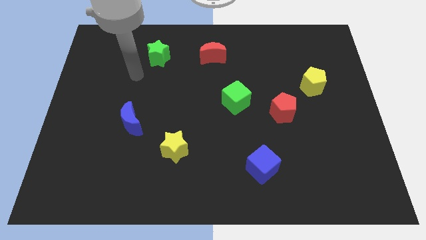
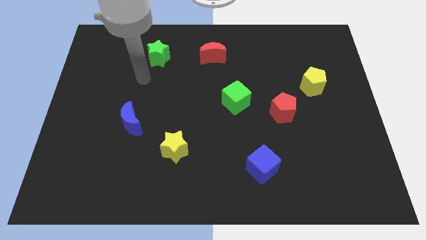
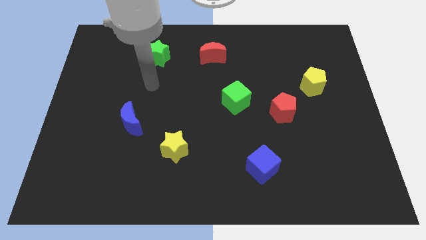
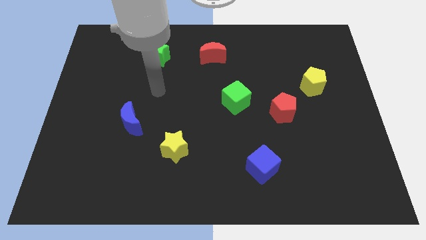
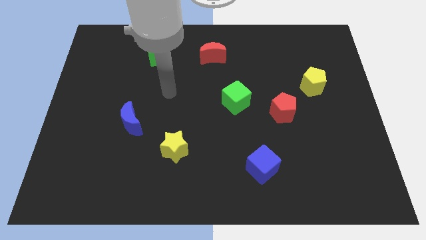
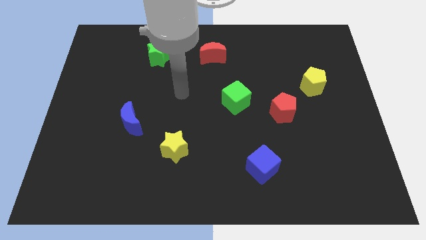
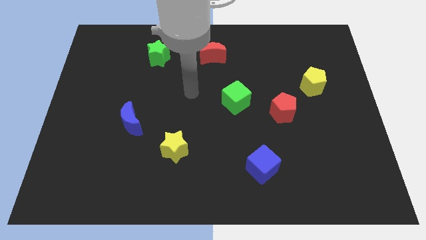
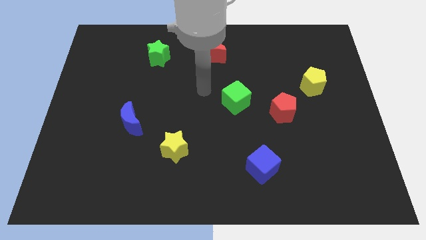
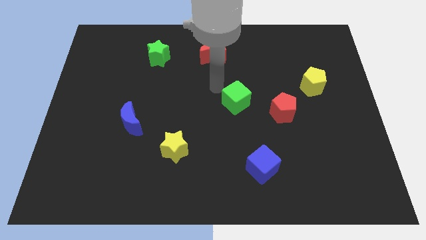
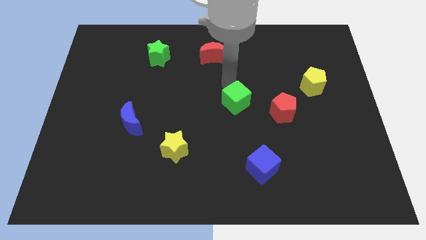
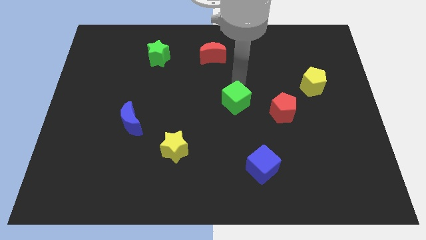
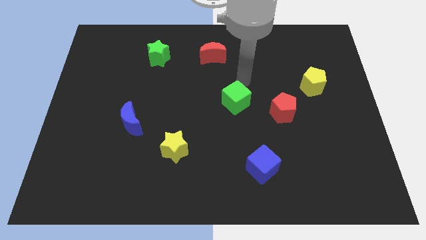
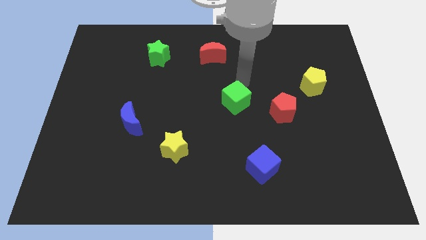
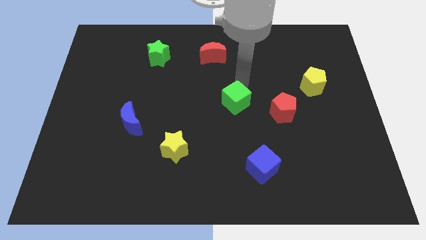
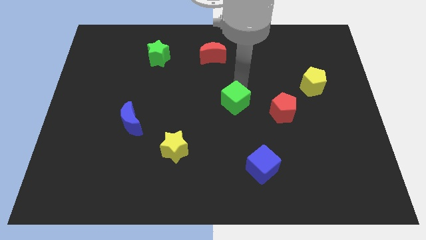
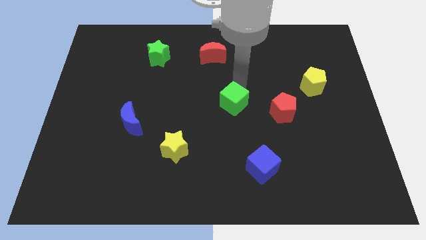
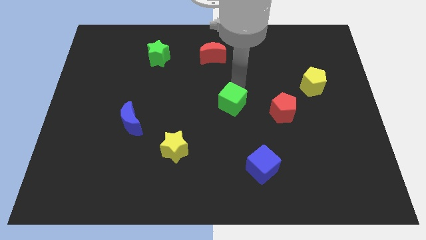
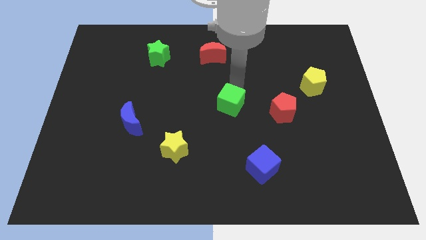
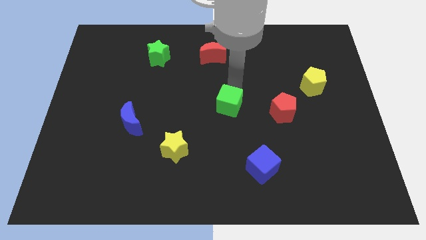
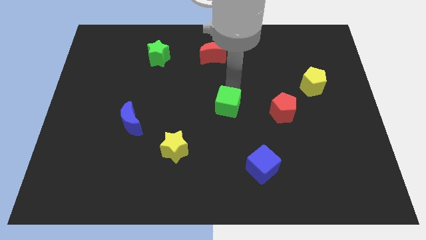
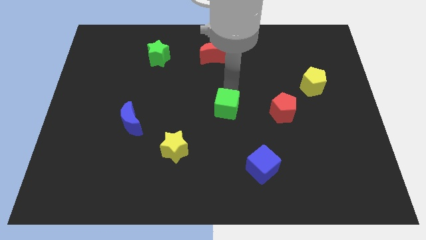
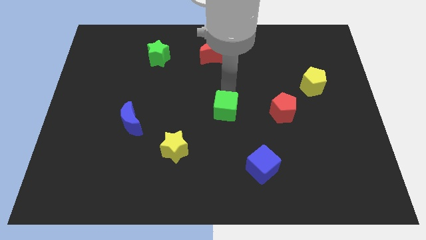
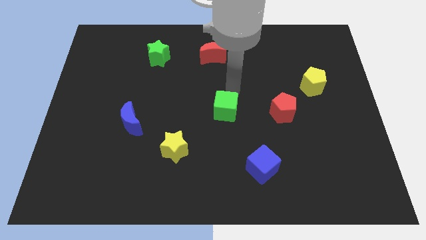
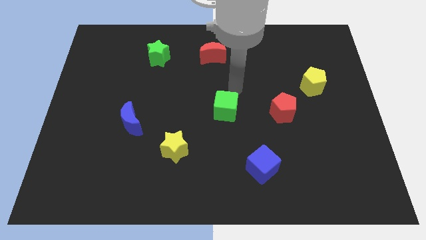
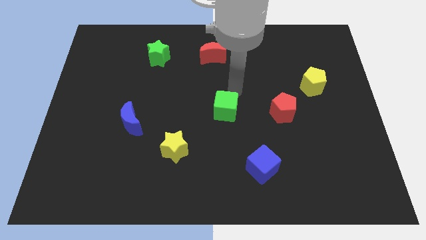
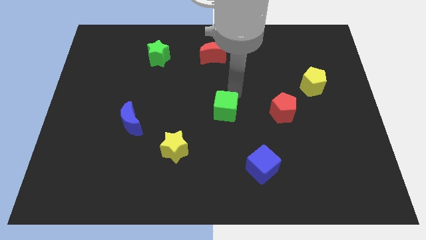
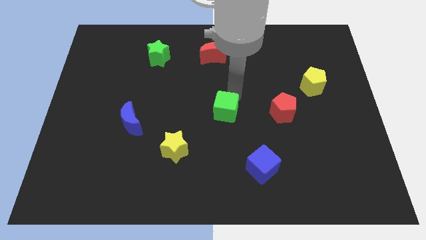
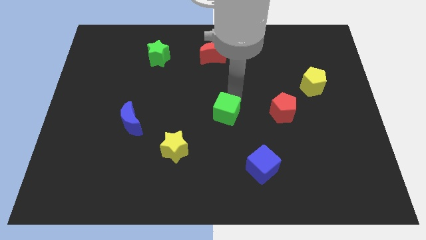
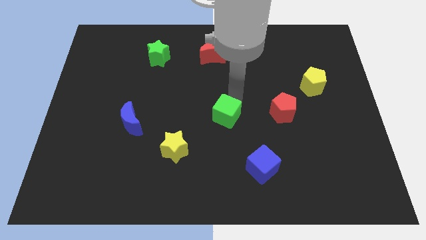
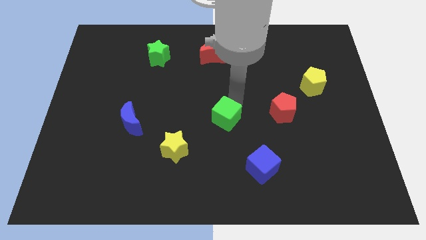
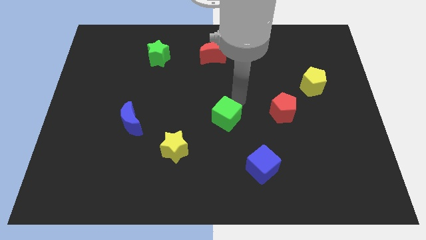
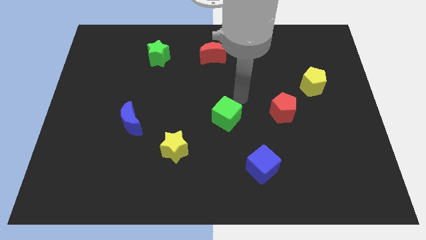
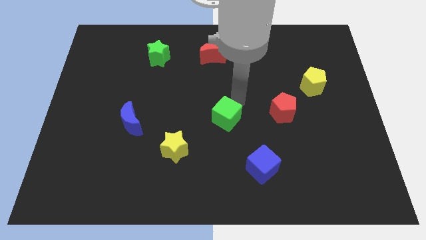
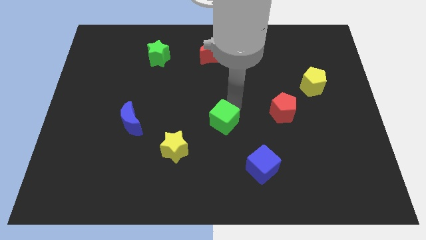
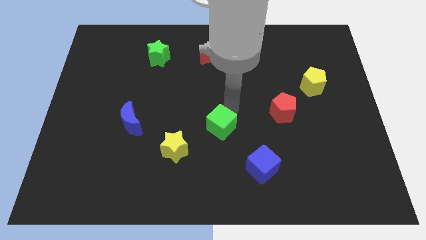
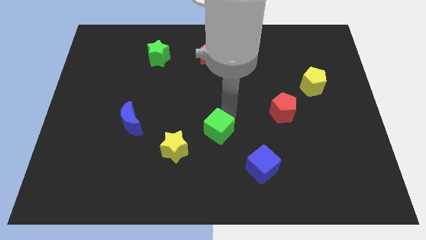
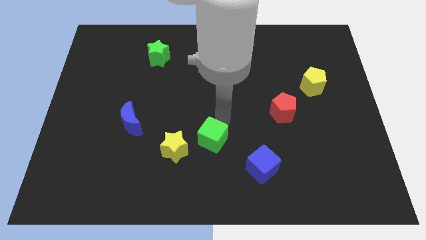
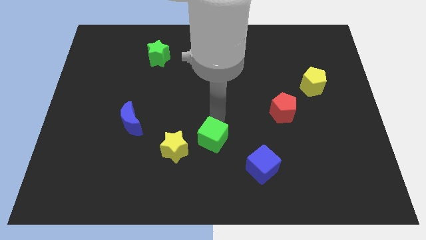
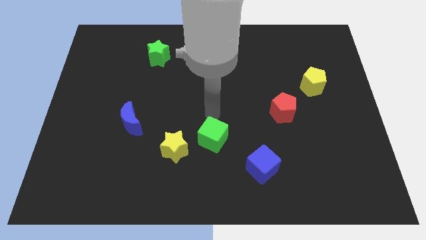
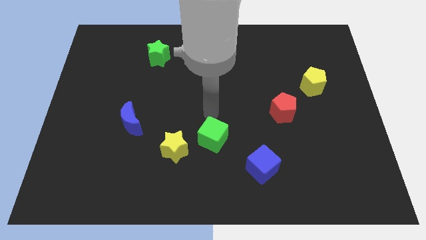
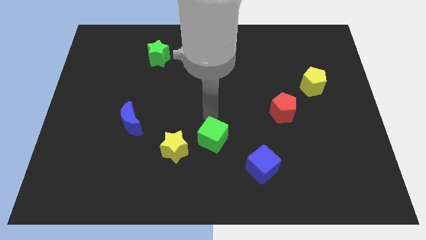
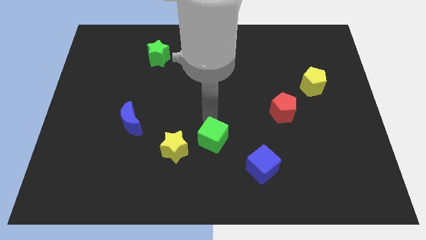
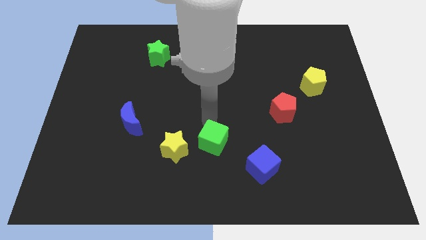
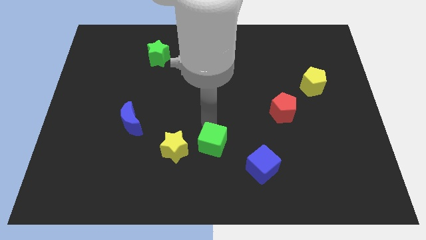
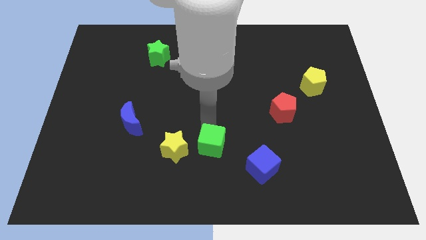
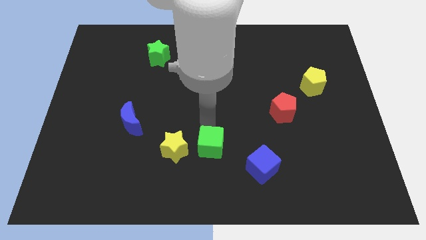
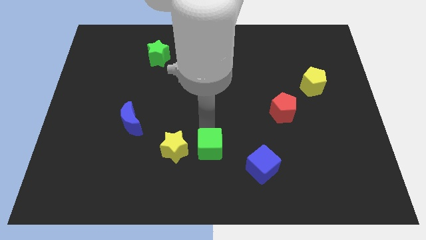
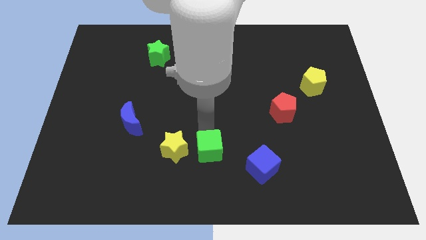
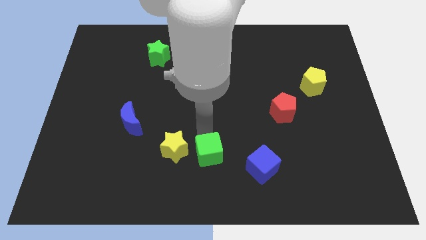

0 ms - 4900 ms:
slide the green cube to the bottom side

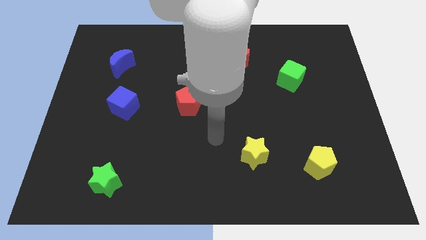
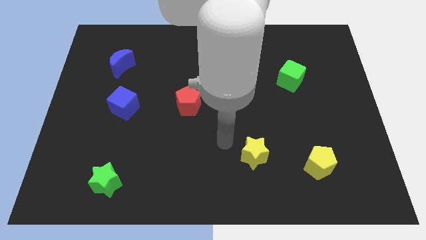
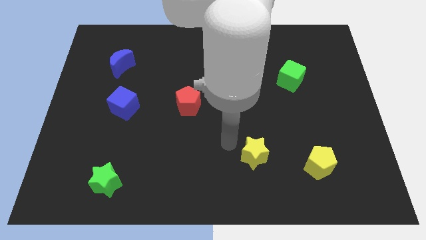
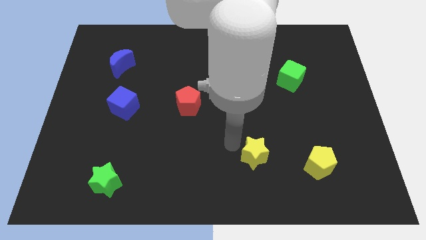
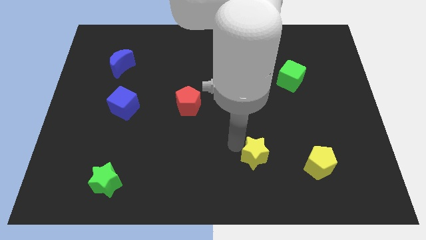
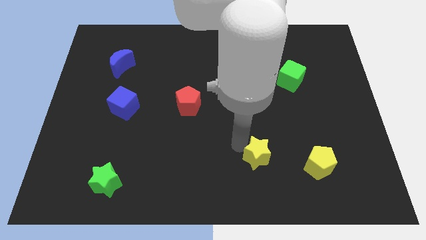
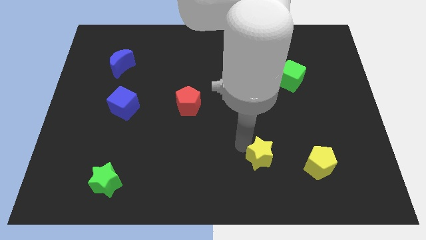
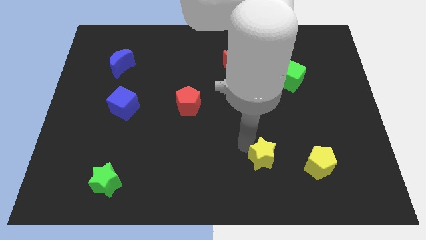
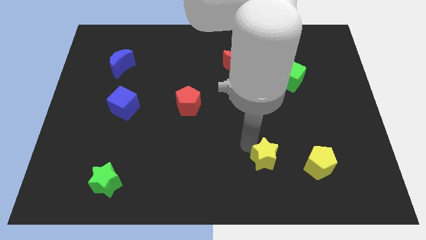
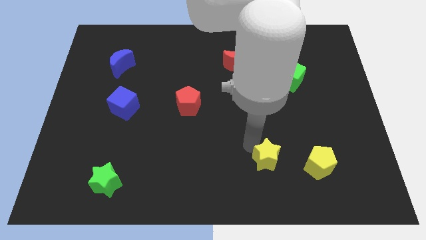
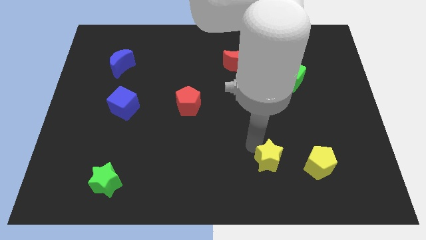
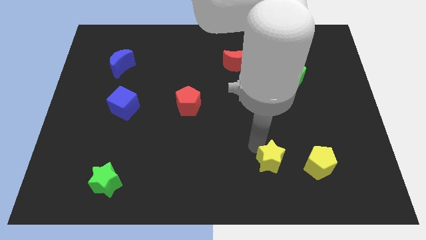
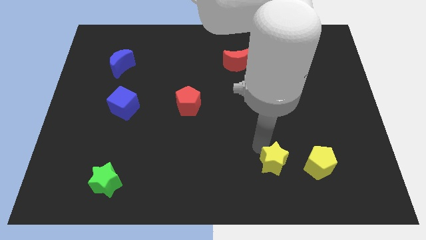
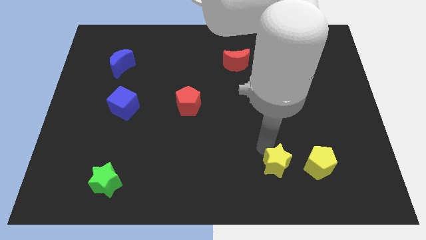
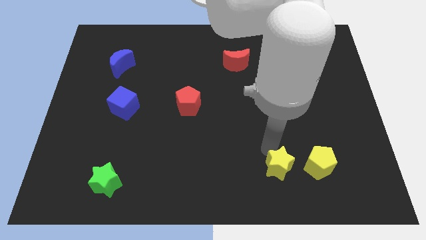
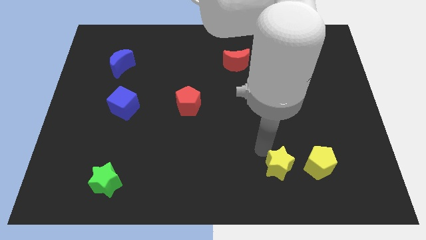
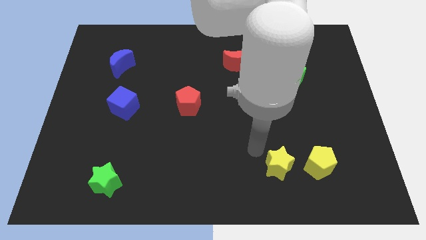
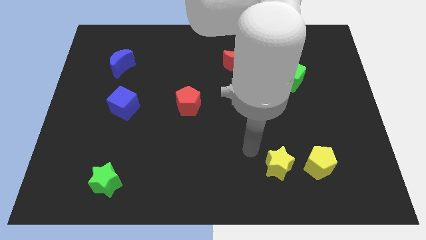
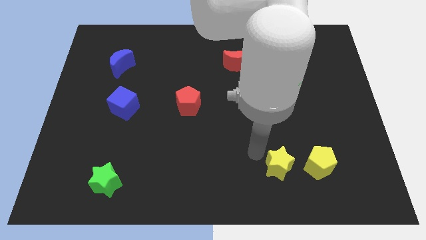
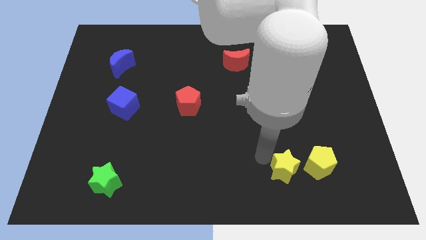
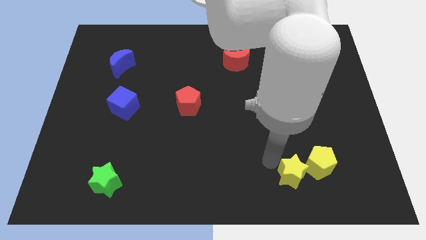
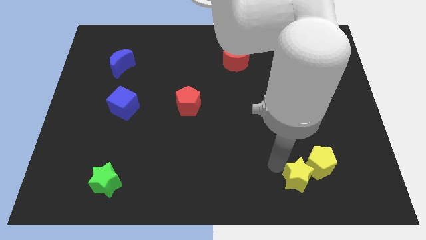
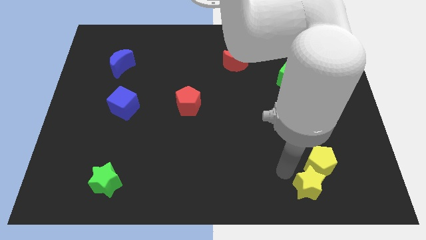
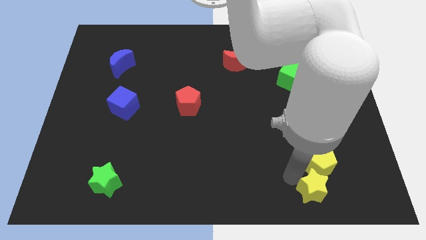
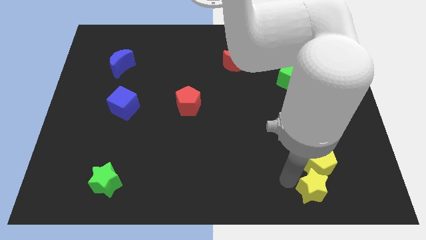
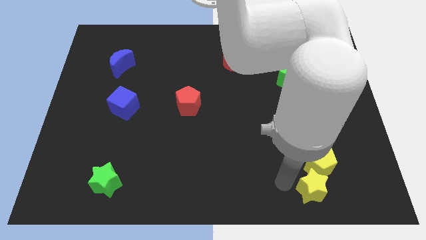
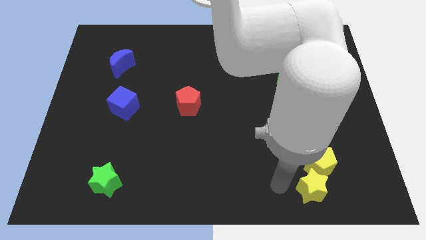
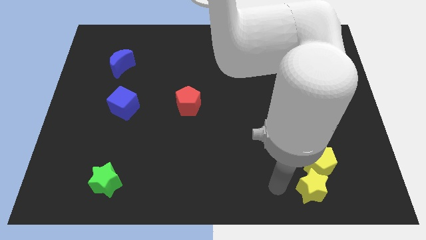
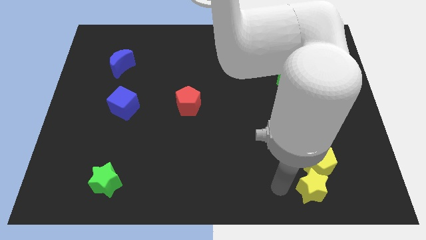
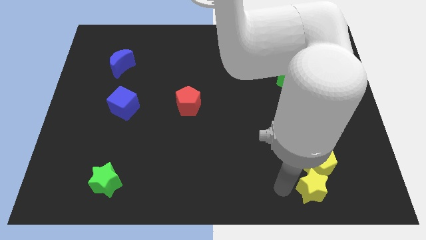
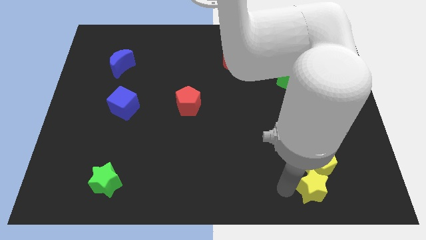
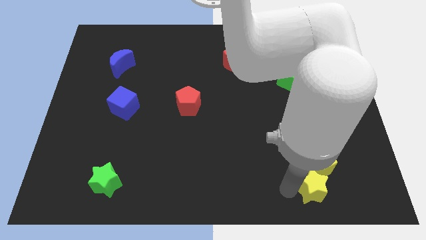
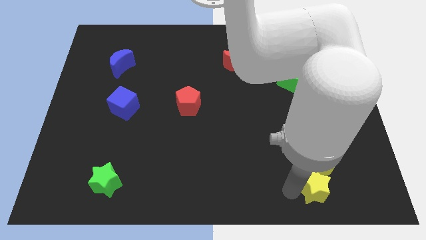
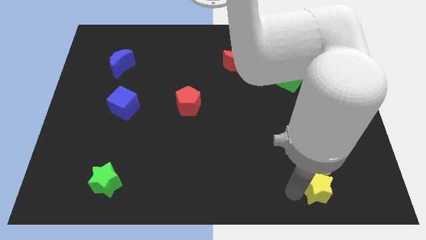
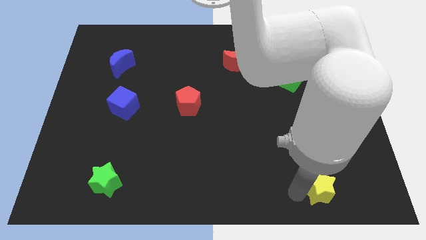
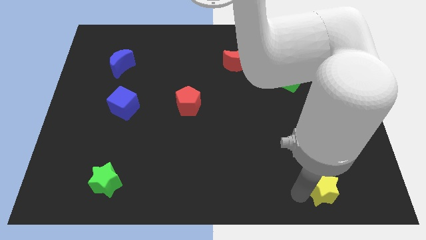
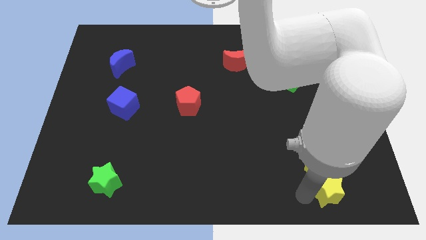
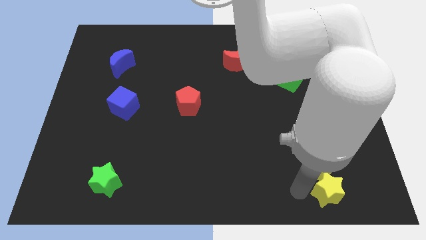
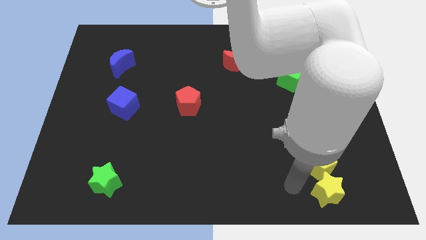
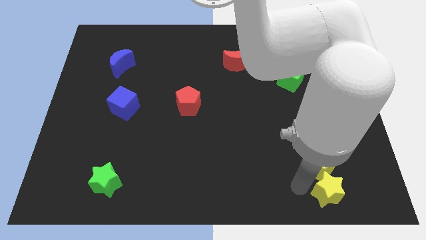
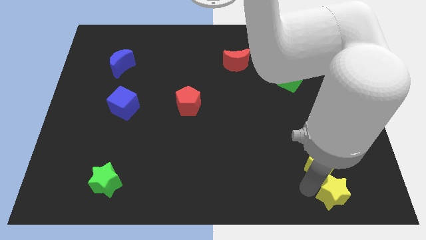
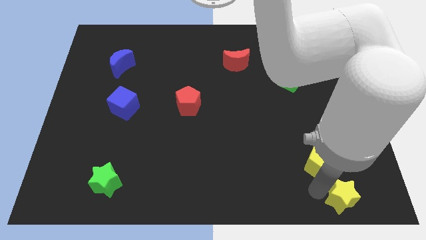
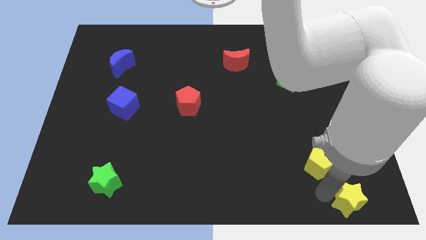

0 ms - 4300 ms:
put the yellow star to the lower right corner
